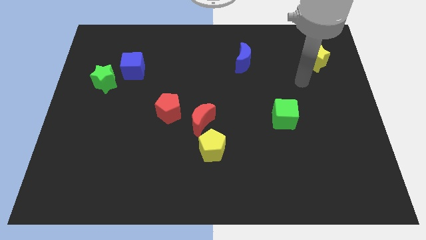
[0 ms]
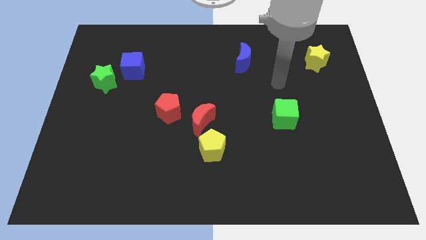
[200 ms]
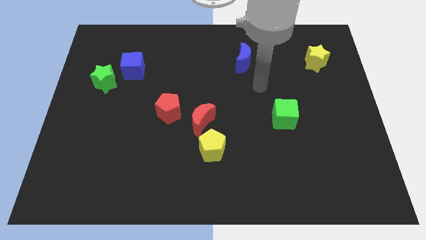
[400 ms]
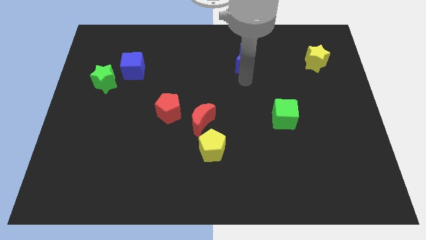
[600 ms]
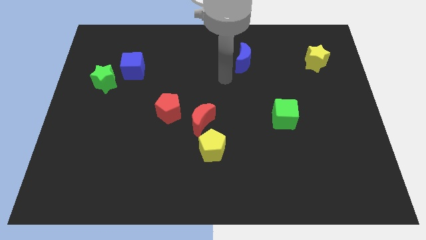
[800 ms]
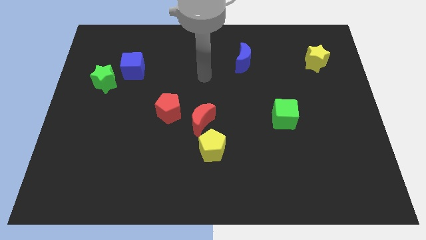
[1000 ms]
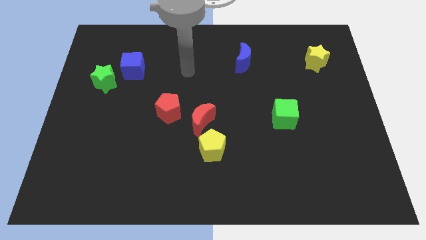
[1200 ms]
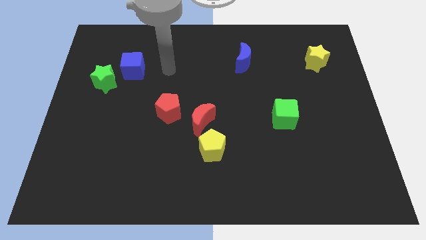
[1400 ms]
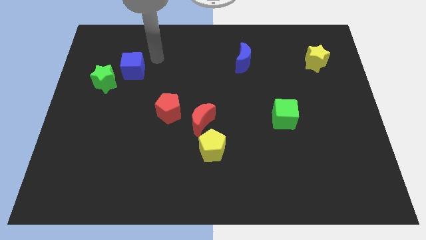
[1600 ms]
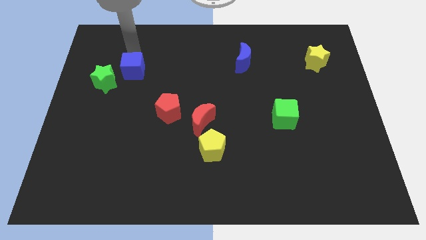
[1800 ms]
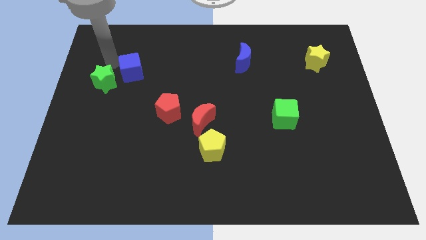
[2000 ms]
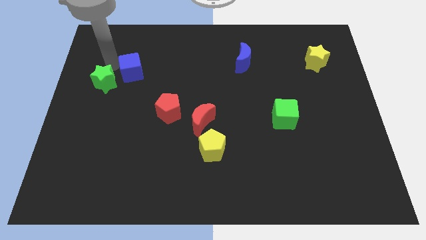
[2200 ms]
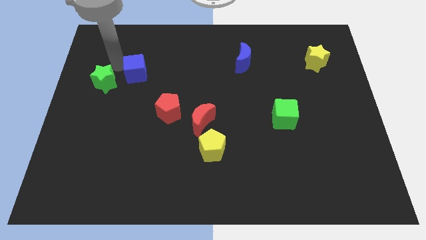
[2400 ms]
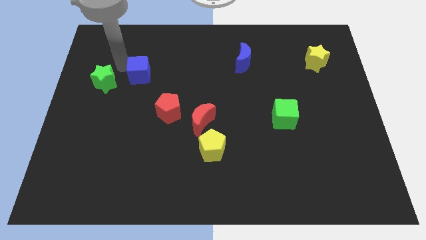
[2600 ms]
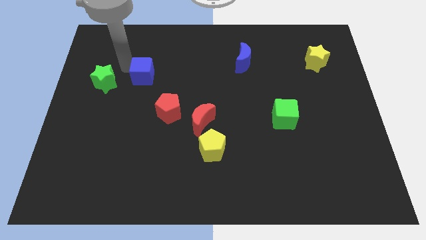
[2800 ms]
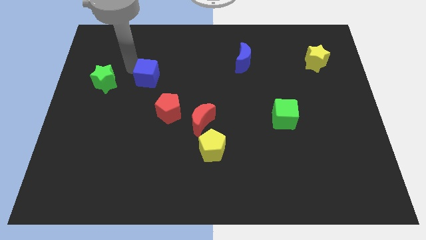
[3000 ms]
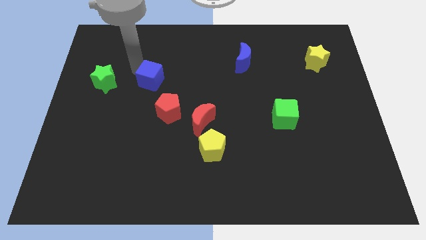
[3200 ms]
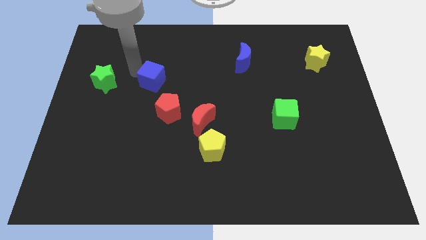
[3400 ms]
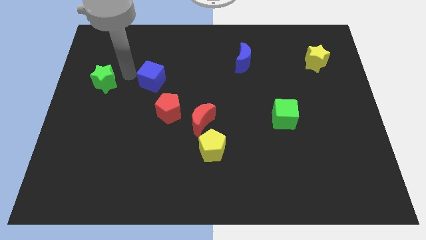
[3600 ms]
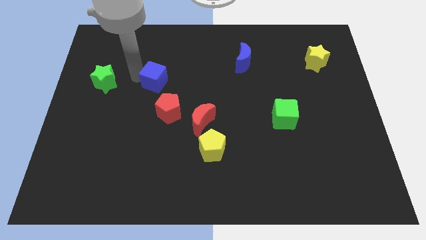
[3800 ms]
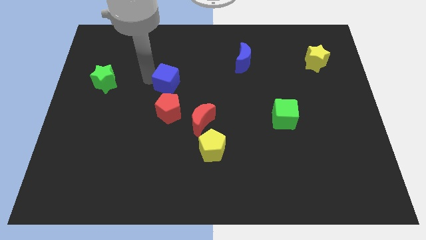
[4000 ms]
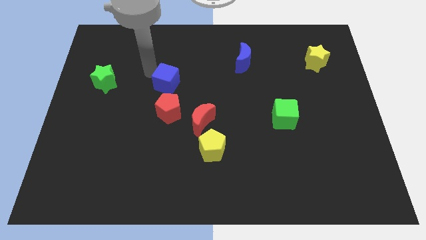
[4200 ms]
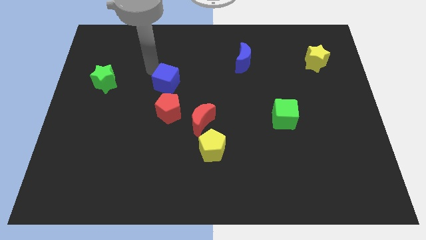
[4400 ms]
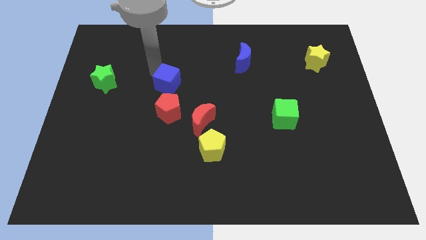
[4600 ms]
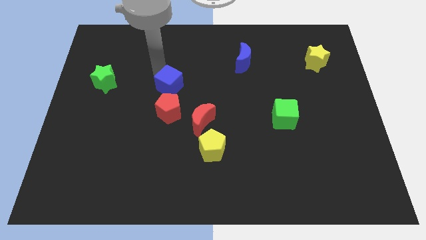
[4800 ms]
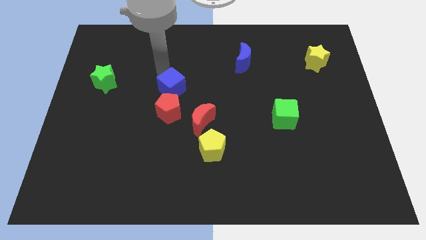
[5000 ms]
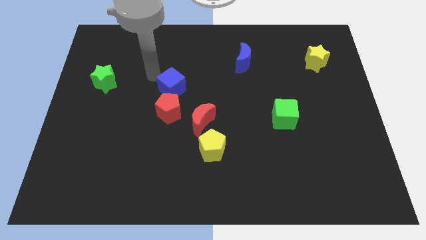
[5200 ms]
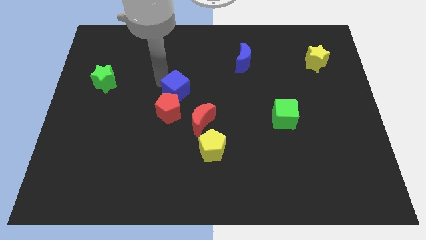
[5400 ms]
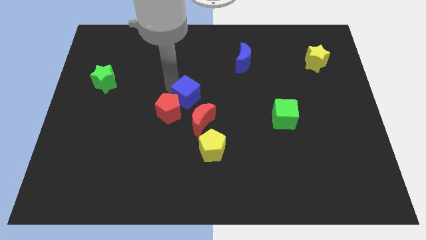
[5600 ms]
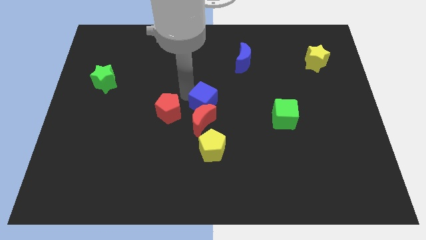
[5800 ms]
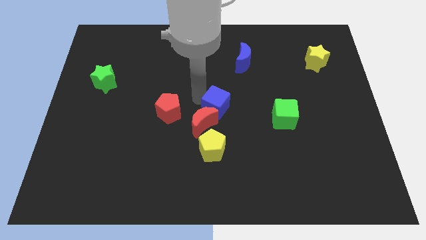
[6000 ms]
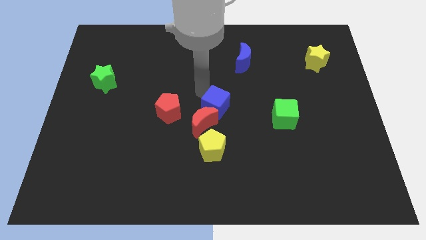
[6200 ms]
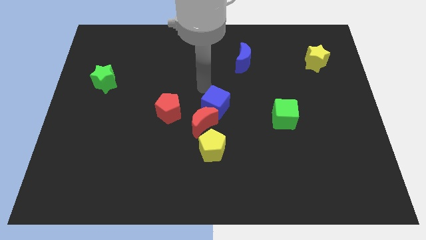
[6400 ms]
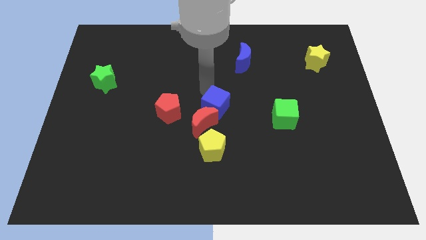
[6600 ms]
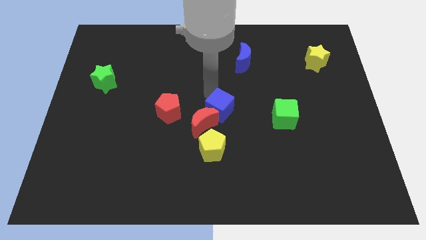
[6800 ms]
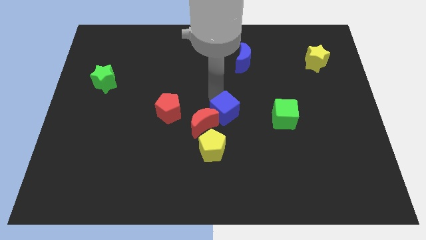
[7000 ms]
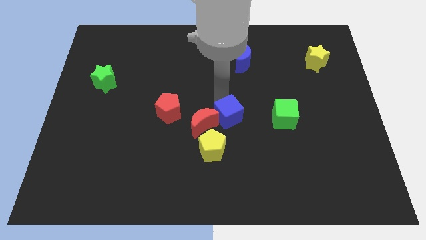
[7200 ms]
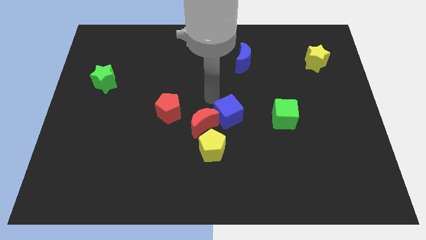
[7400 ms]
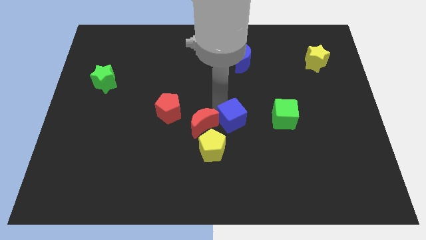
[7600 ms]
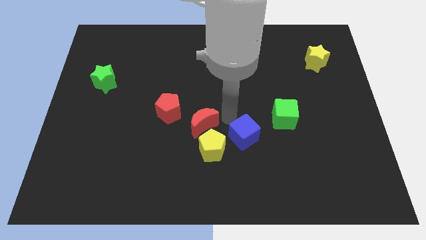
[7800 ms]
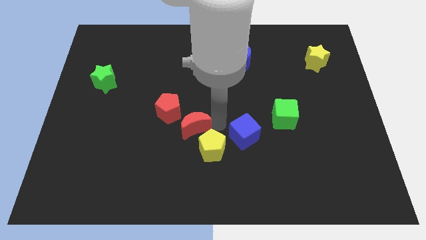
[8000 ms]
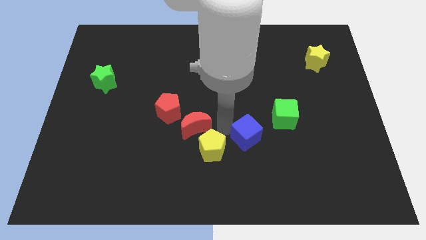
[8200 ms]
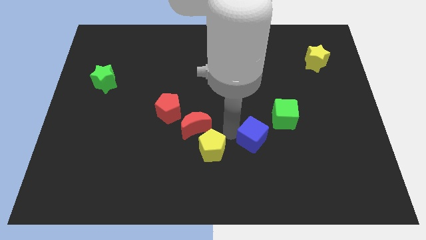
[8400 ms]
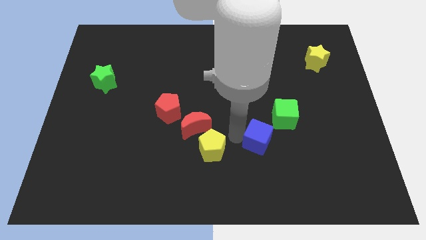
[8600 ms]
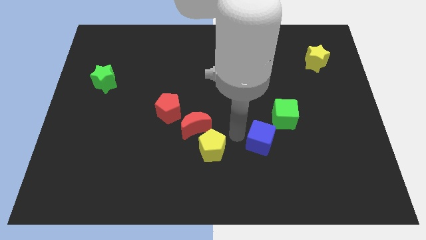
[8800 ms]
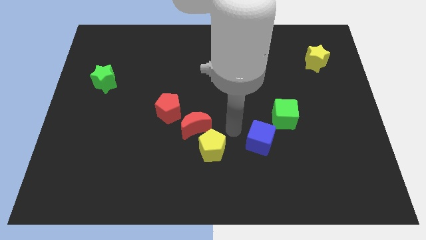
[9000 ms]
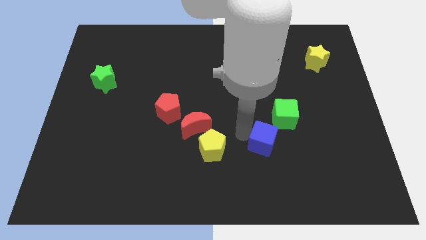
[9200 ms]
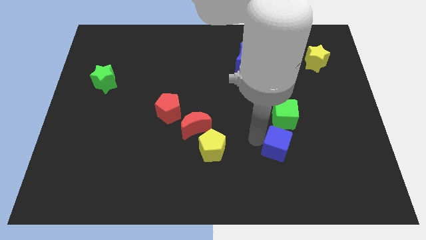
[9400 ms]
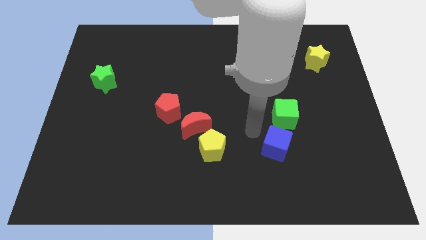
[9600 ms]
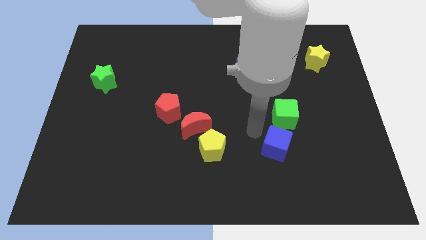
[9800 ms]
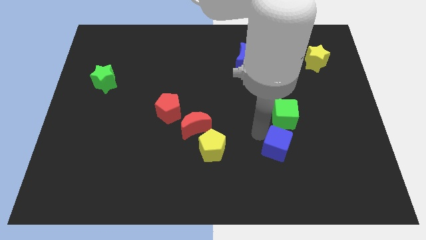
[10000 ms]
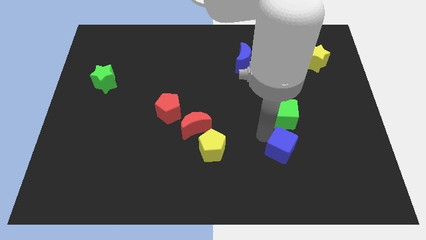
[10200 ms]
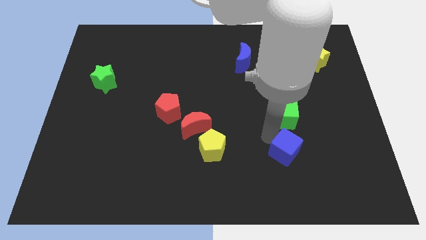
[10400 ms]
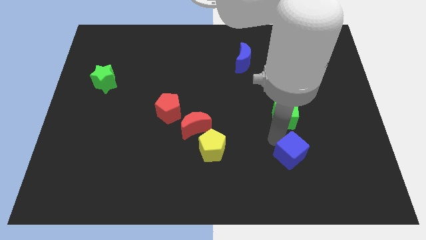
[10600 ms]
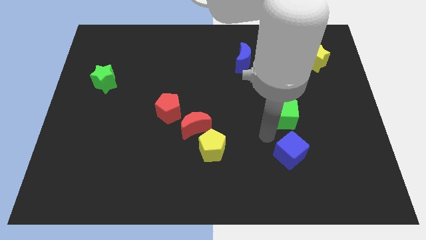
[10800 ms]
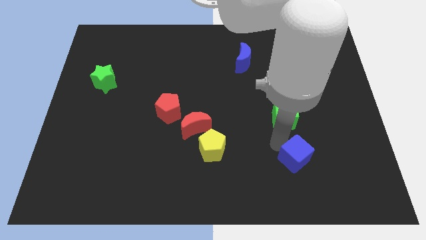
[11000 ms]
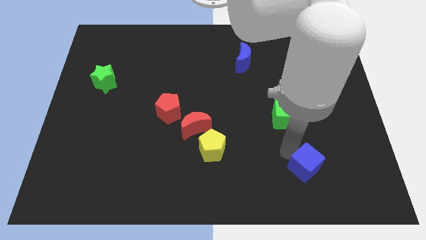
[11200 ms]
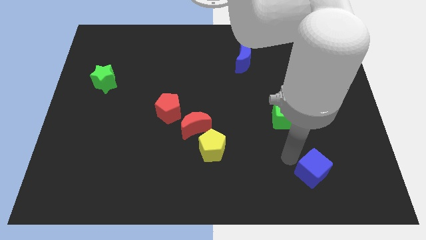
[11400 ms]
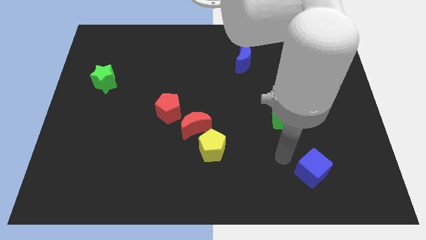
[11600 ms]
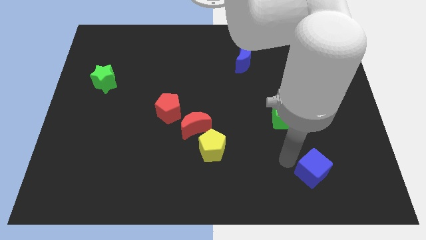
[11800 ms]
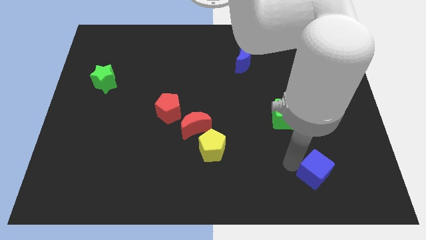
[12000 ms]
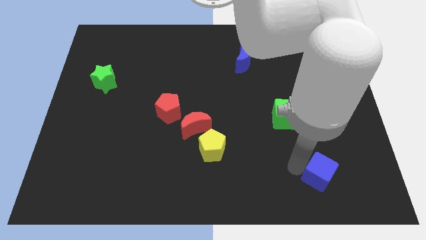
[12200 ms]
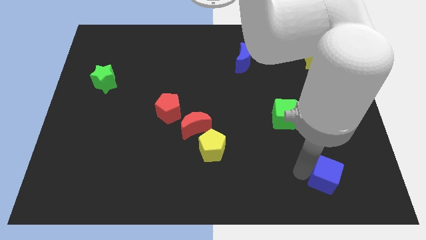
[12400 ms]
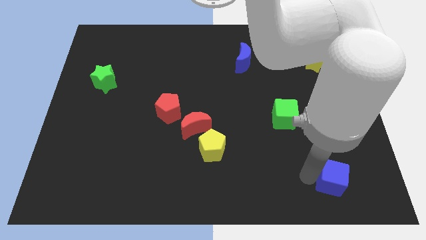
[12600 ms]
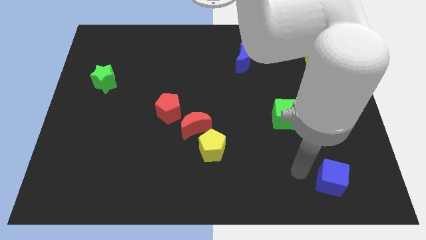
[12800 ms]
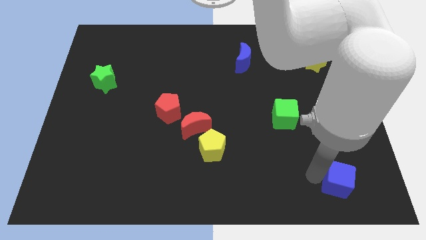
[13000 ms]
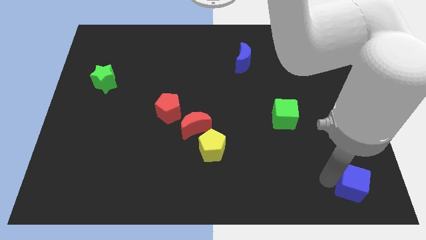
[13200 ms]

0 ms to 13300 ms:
push the blue cube to the bottom right
